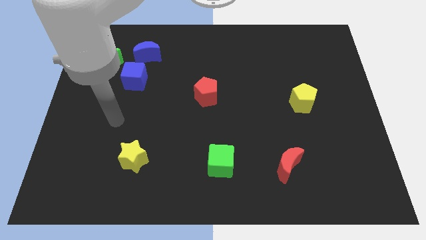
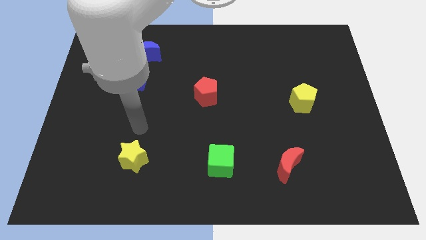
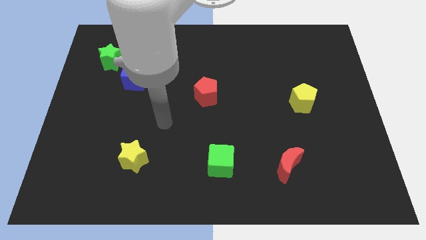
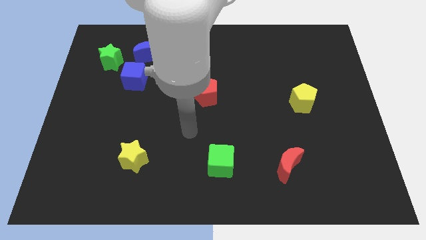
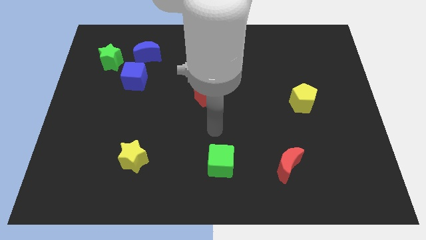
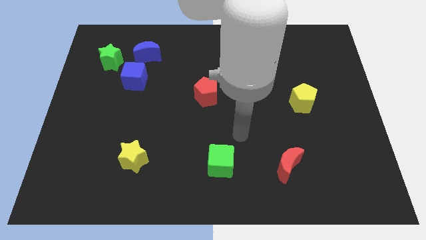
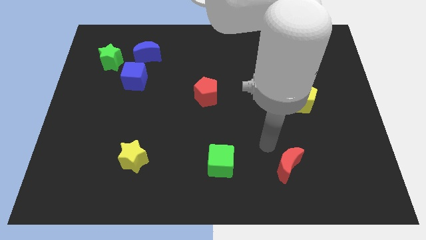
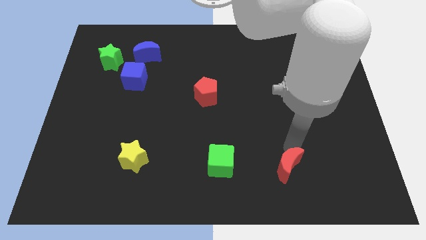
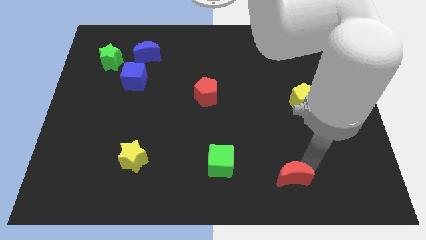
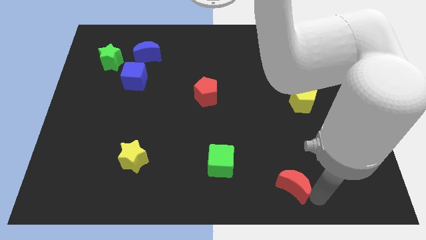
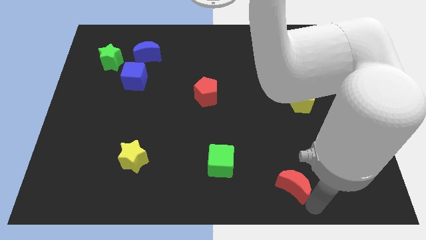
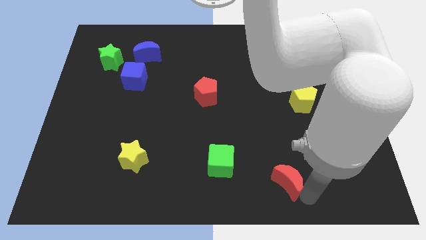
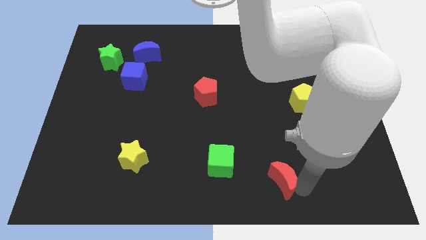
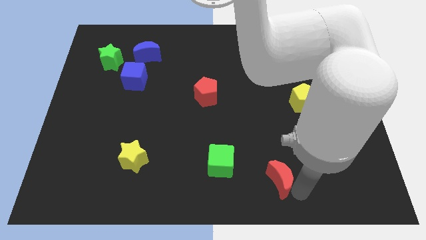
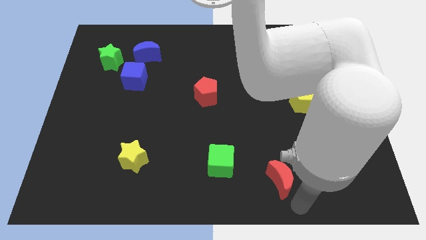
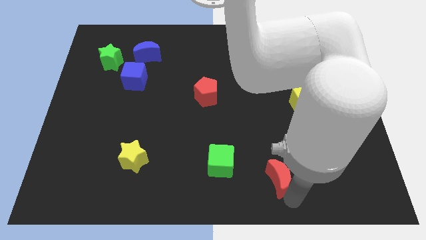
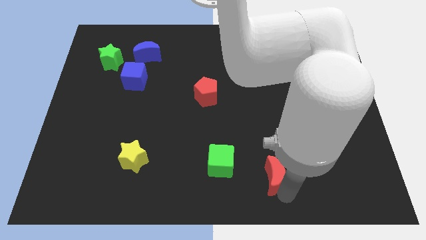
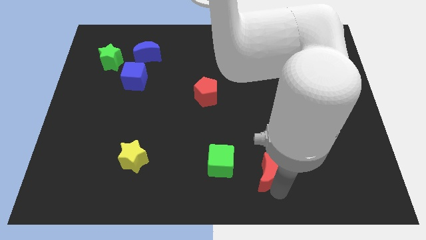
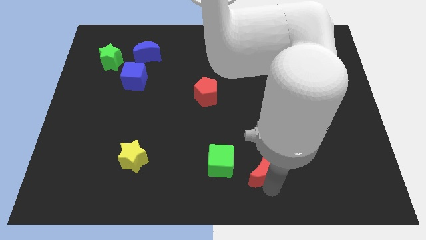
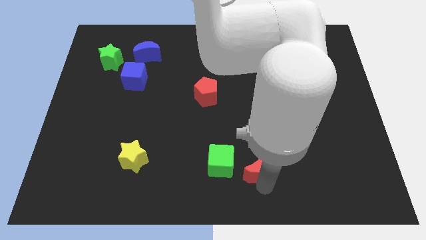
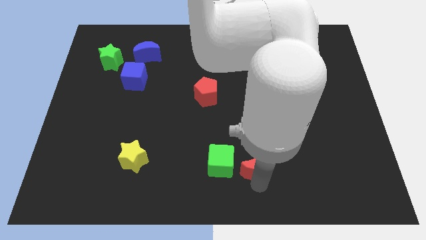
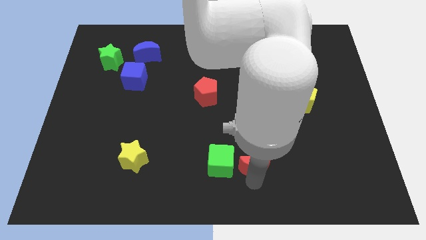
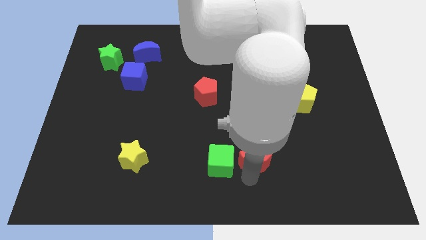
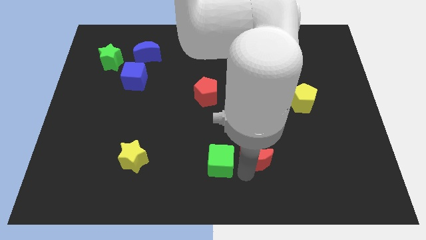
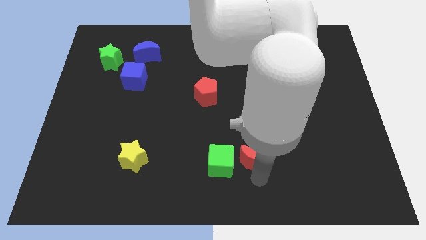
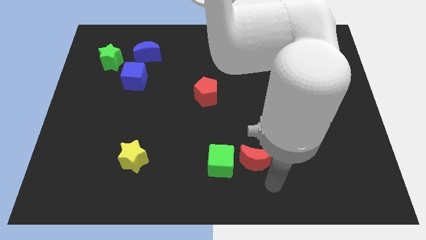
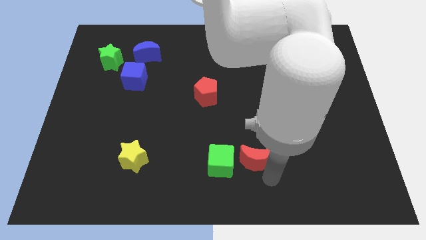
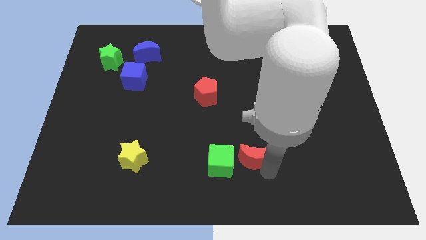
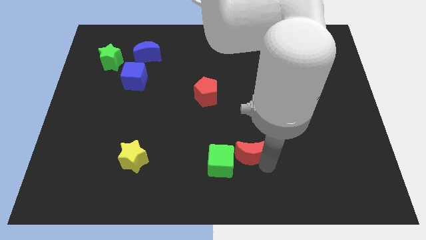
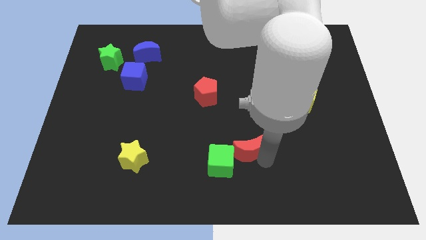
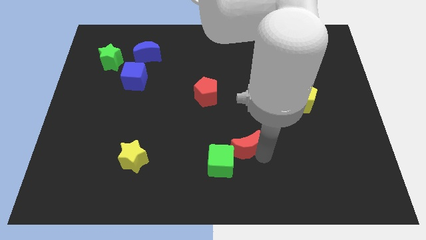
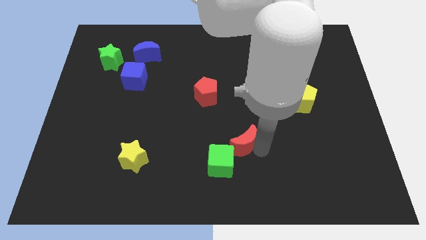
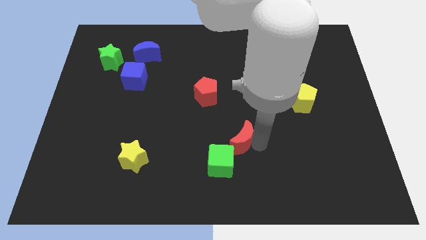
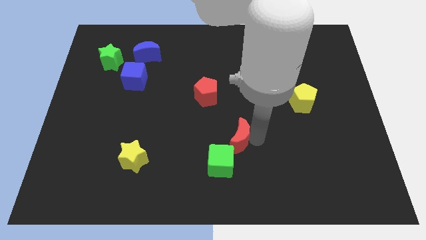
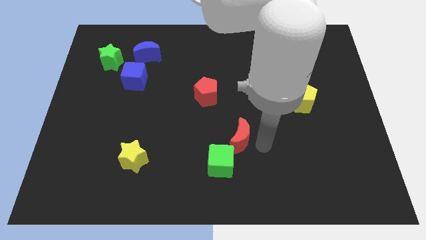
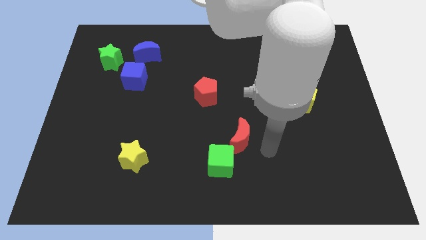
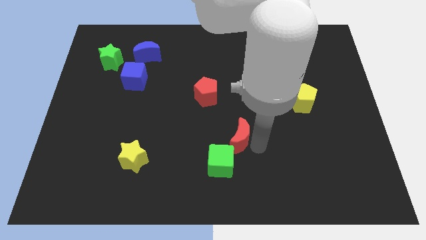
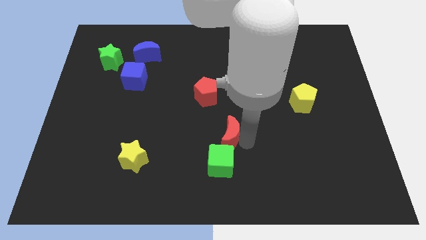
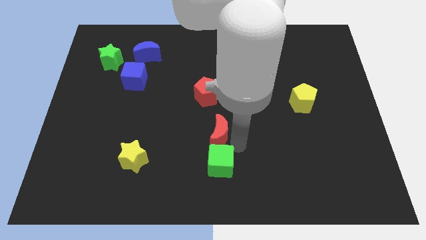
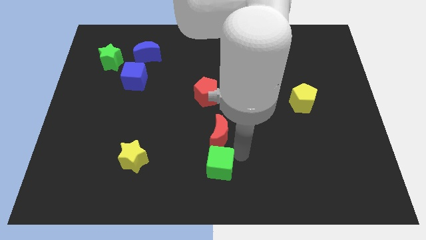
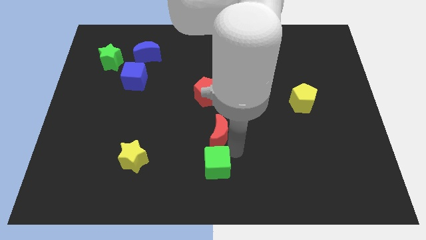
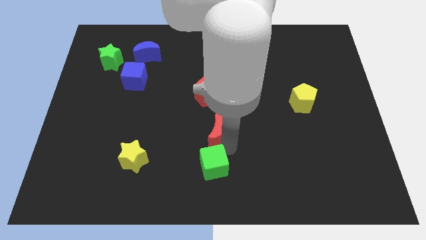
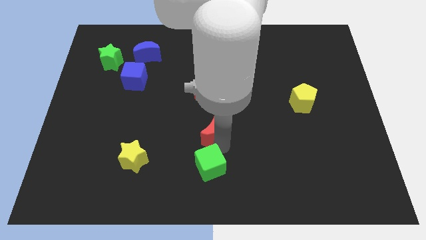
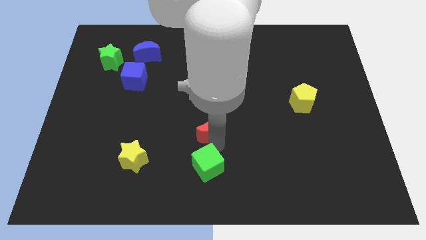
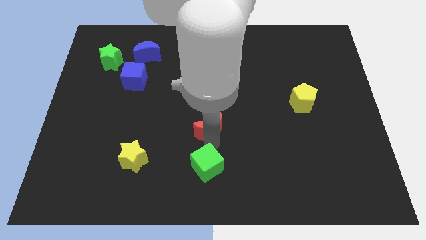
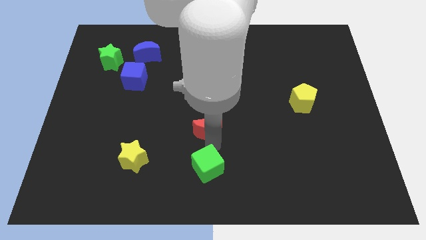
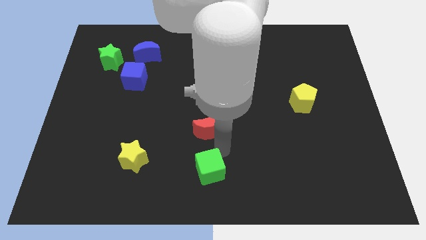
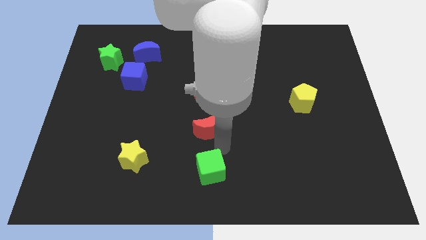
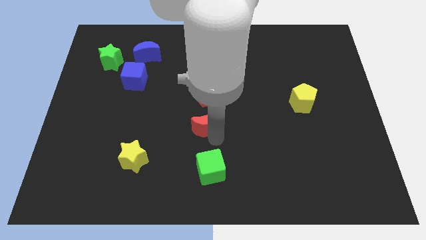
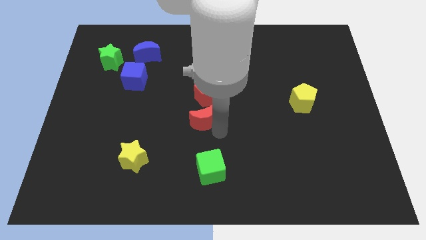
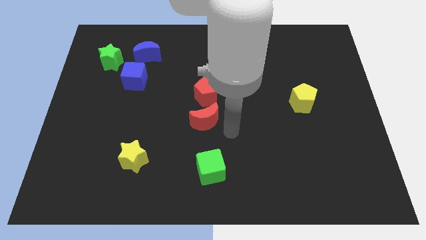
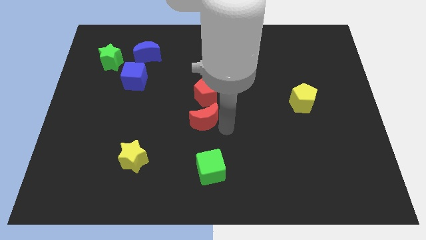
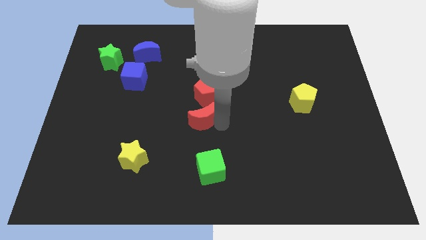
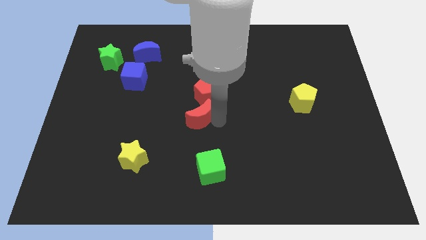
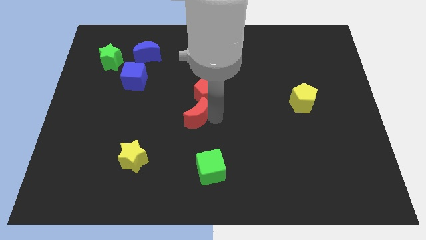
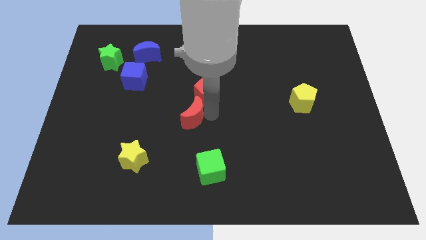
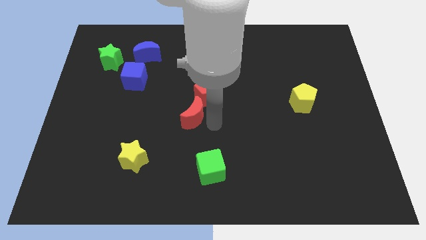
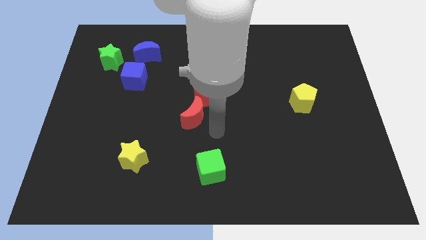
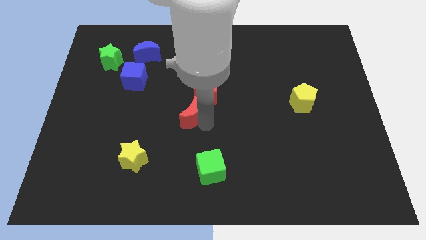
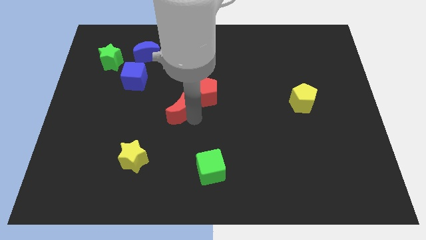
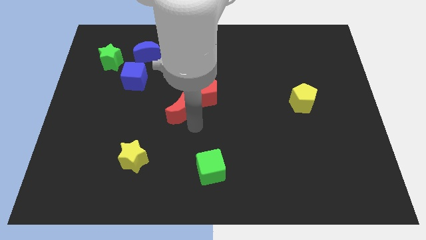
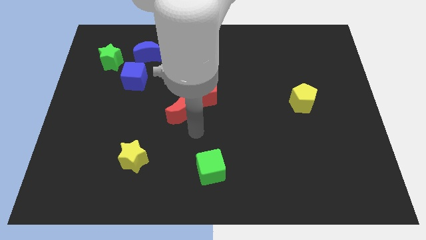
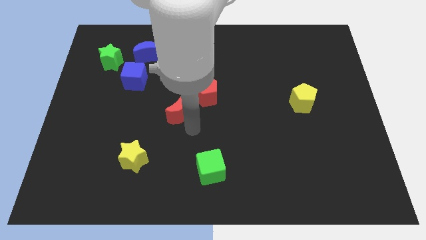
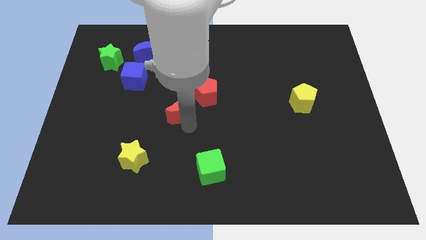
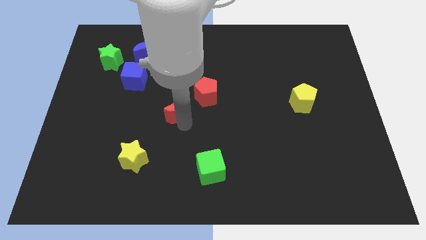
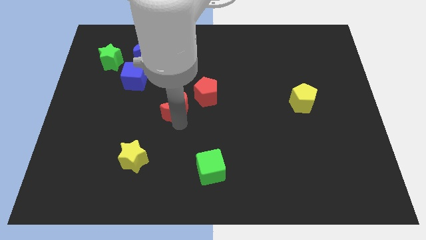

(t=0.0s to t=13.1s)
move the red moon to the left side of the red pentagon

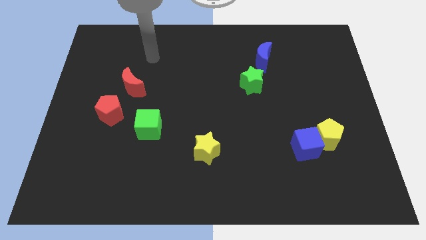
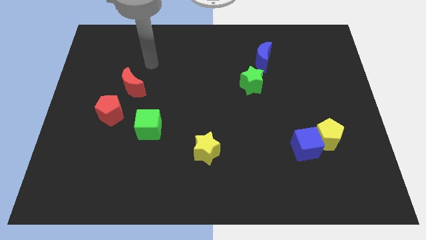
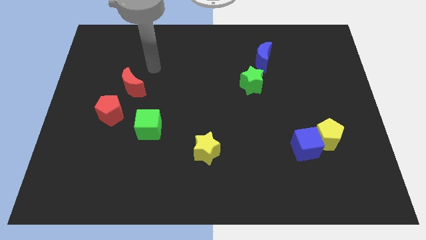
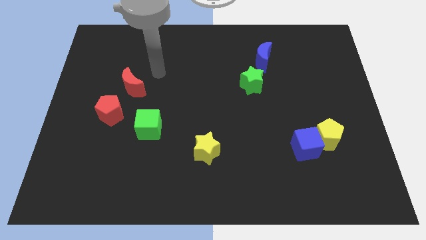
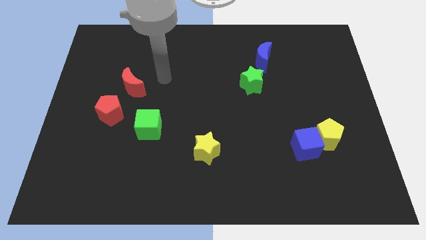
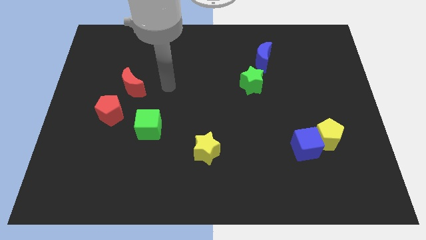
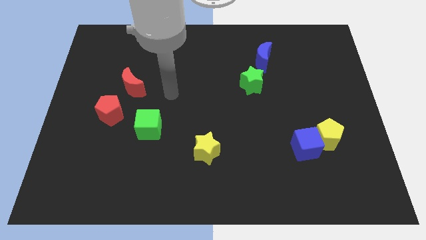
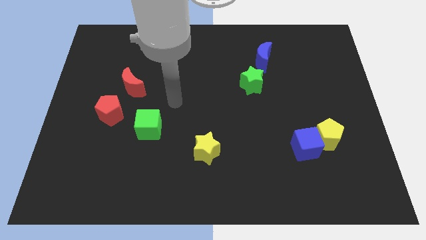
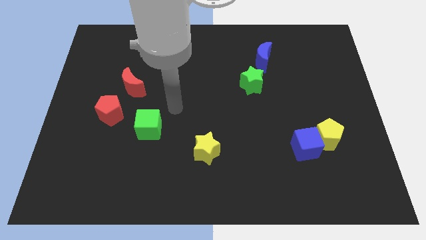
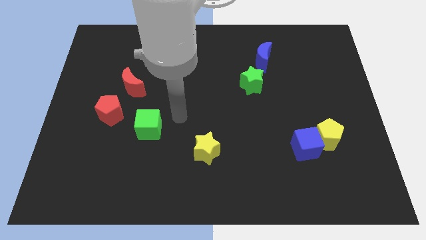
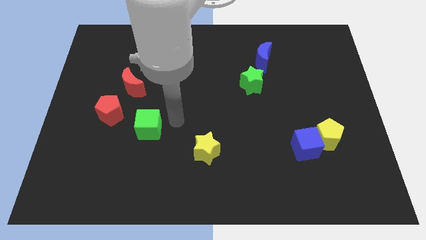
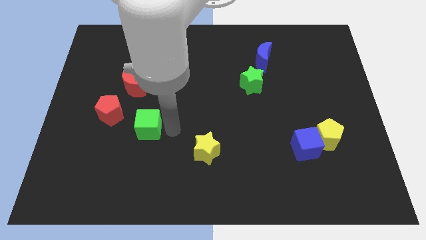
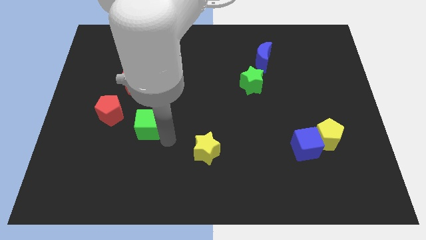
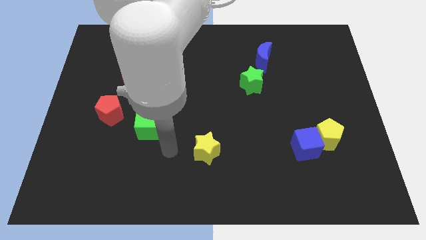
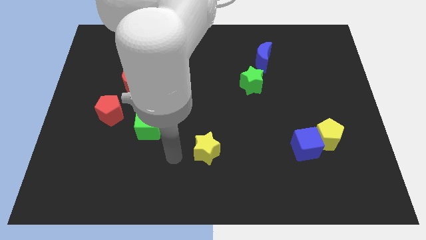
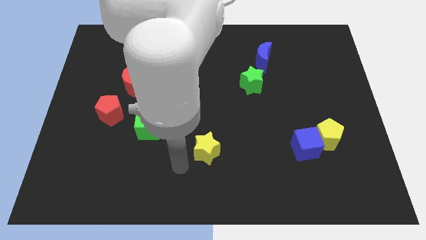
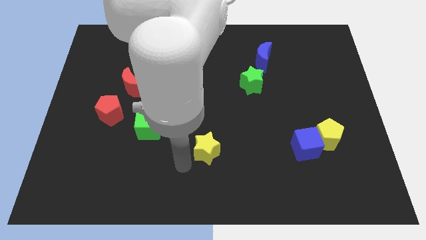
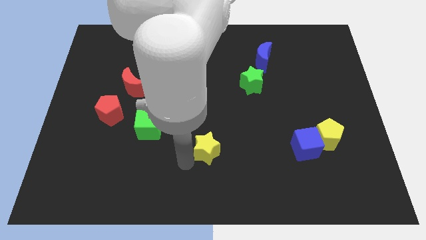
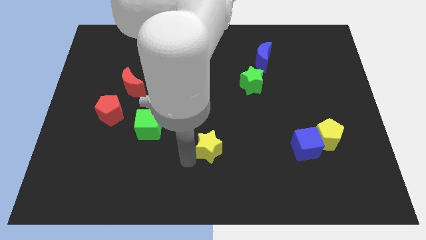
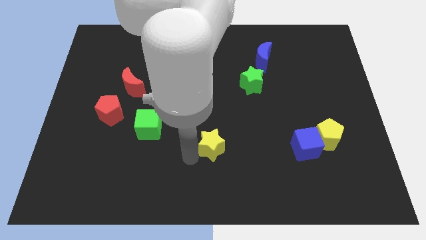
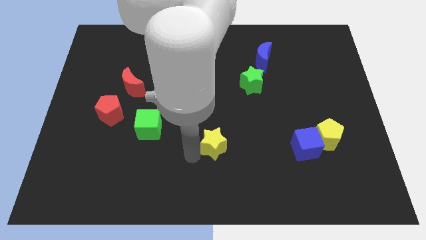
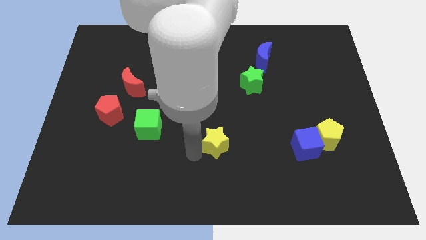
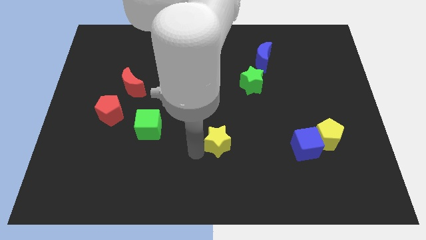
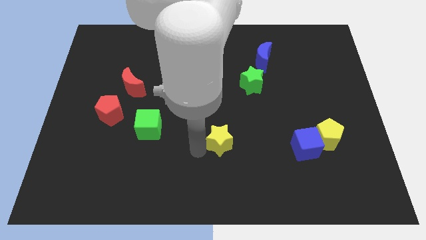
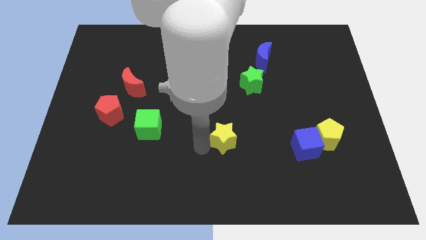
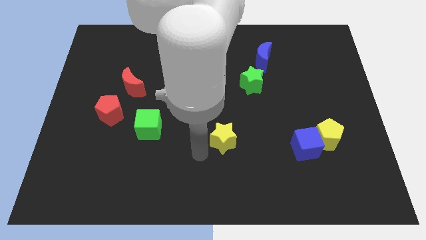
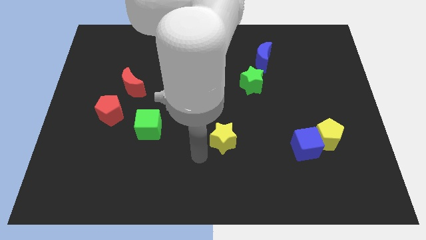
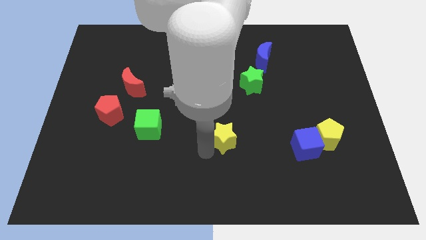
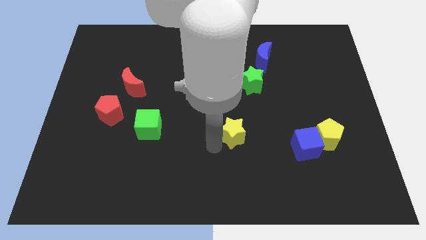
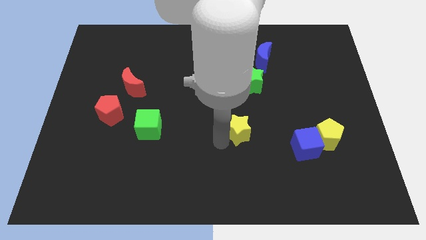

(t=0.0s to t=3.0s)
push the yellow star to the bottom of the green star
